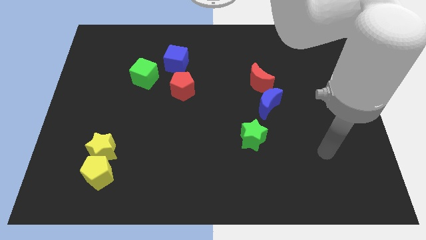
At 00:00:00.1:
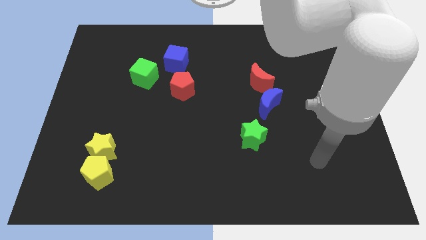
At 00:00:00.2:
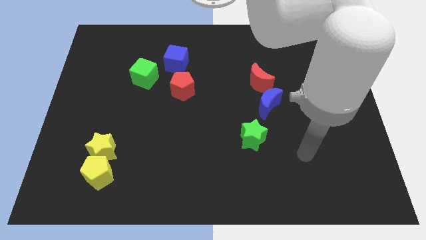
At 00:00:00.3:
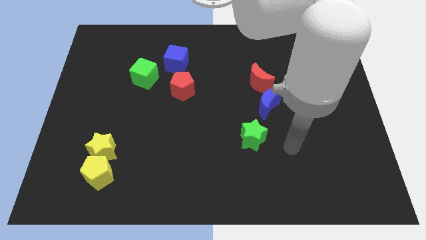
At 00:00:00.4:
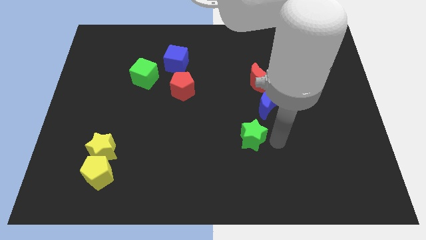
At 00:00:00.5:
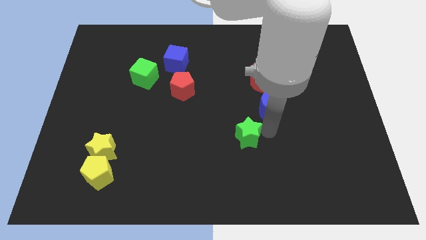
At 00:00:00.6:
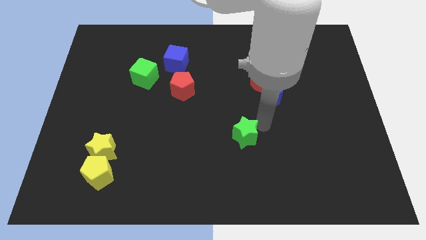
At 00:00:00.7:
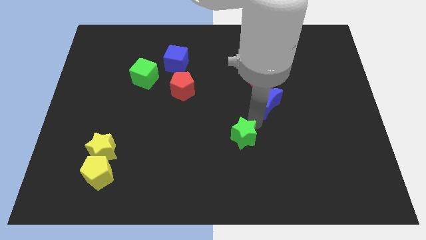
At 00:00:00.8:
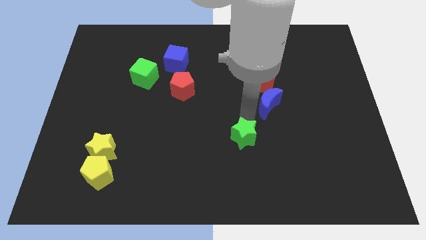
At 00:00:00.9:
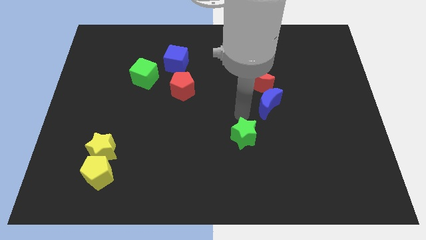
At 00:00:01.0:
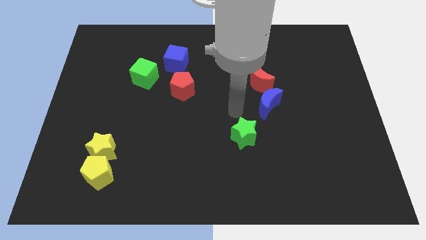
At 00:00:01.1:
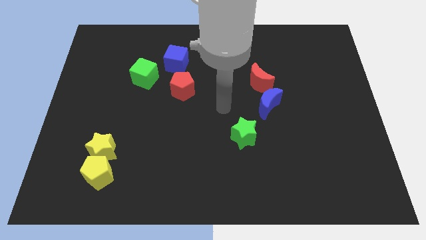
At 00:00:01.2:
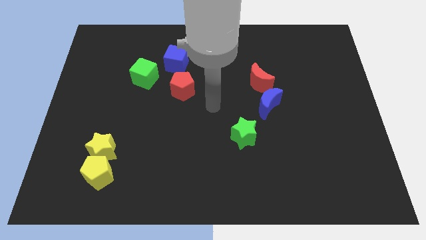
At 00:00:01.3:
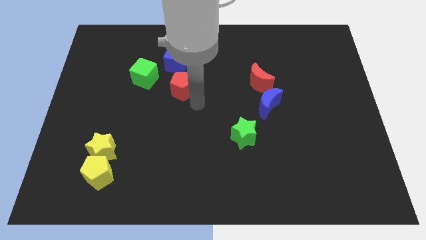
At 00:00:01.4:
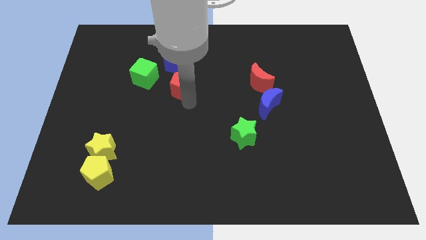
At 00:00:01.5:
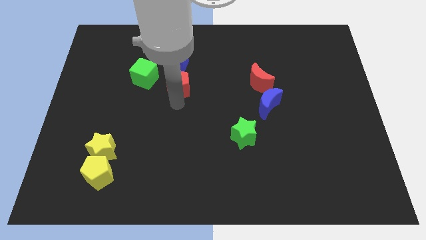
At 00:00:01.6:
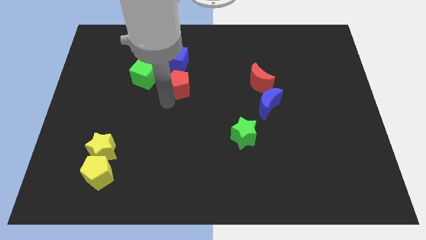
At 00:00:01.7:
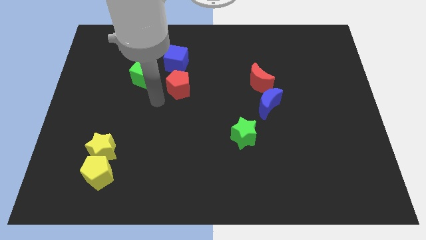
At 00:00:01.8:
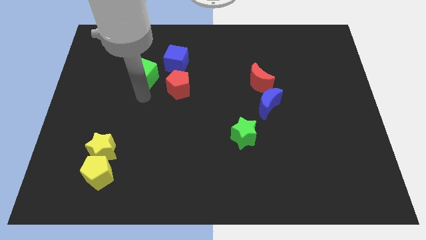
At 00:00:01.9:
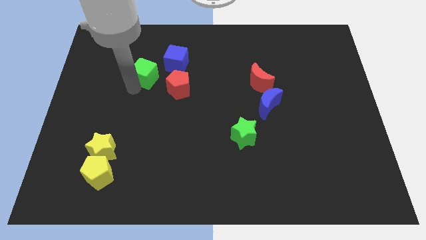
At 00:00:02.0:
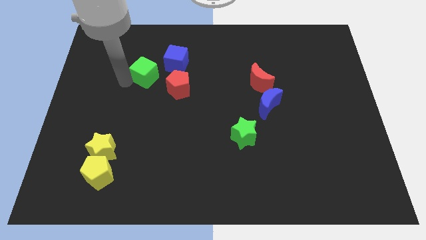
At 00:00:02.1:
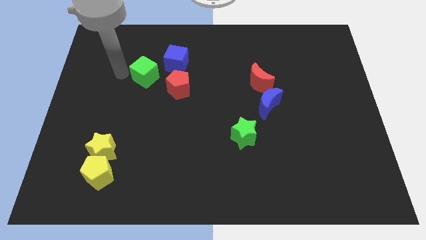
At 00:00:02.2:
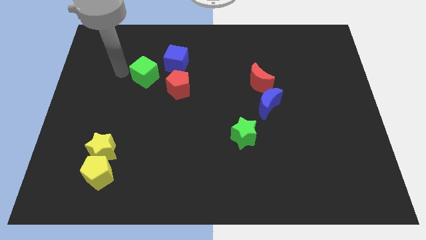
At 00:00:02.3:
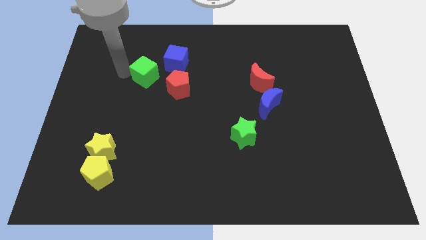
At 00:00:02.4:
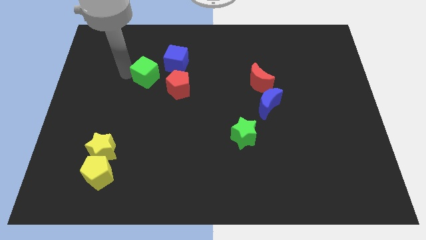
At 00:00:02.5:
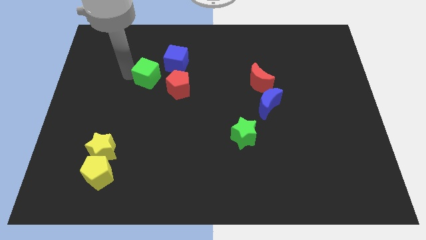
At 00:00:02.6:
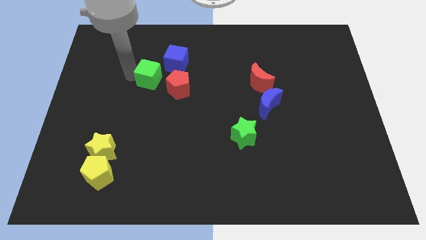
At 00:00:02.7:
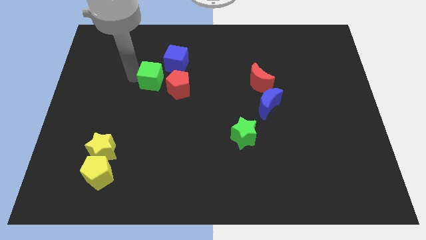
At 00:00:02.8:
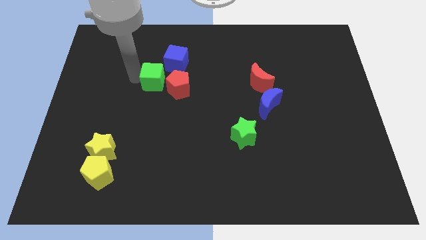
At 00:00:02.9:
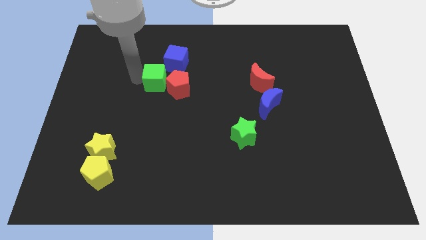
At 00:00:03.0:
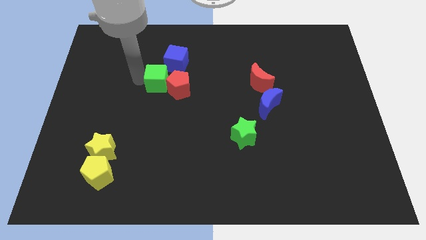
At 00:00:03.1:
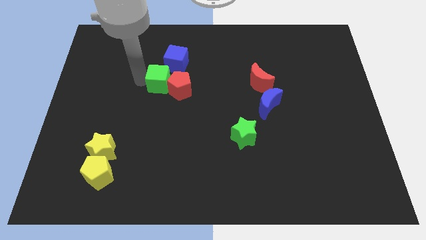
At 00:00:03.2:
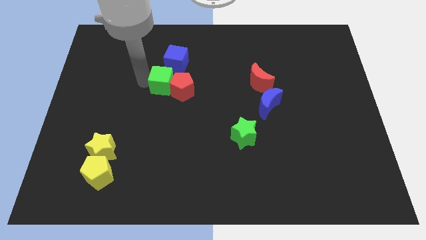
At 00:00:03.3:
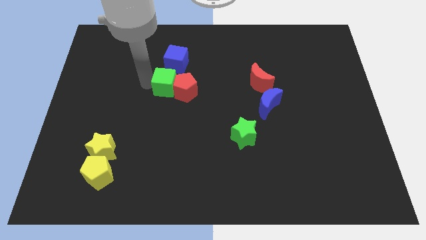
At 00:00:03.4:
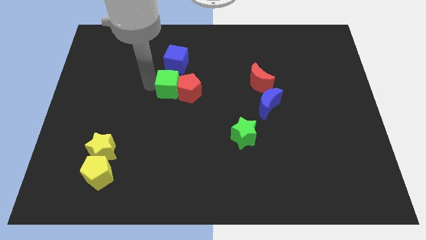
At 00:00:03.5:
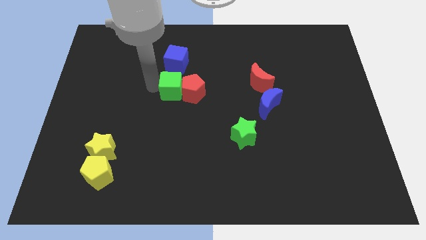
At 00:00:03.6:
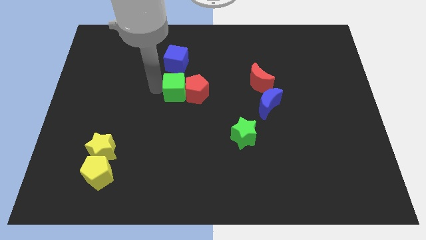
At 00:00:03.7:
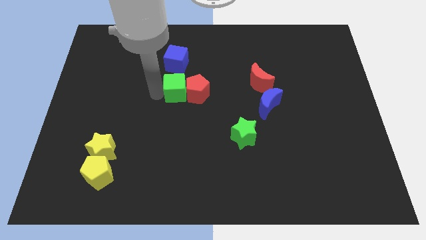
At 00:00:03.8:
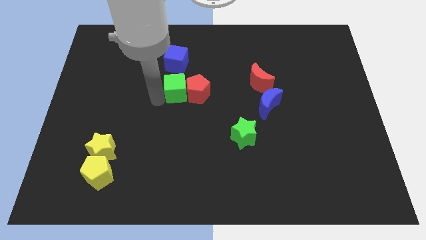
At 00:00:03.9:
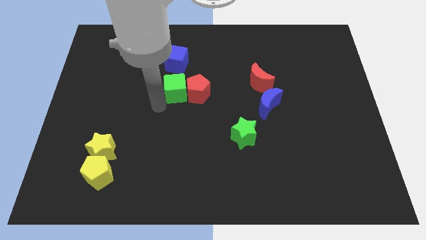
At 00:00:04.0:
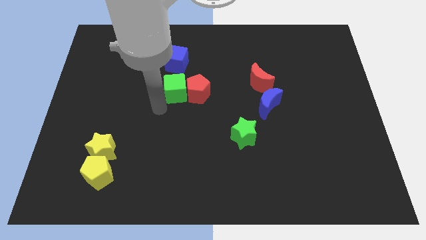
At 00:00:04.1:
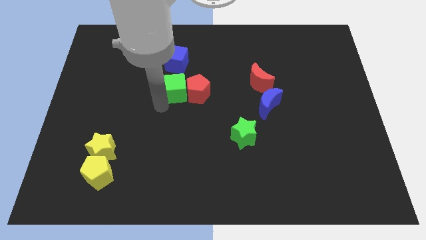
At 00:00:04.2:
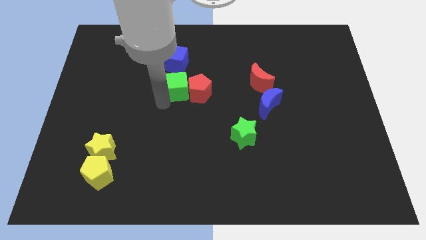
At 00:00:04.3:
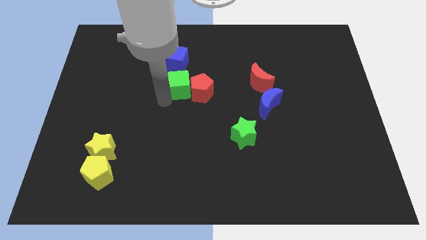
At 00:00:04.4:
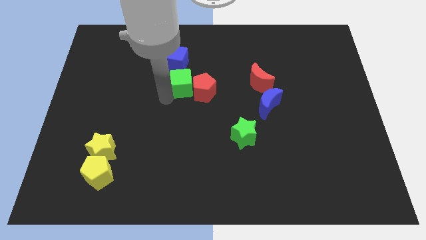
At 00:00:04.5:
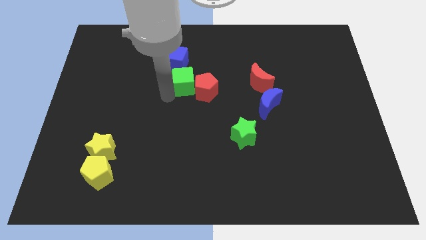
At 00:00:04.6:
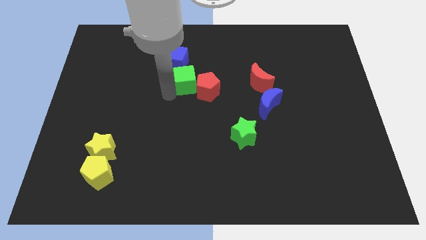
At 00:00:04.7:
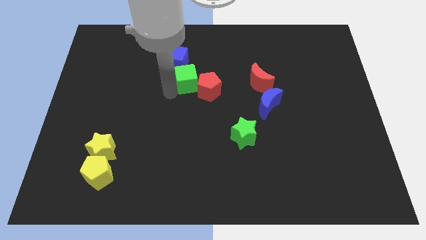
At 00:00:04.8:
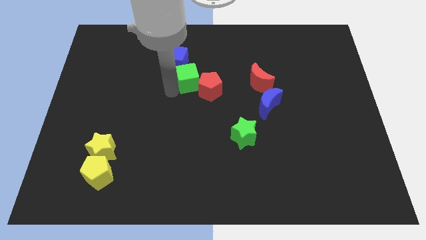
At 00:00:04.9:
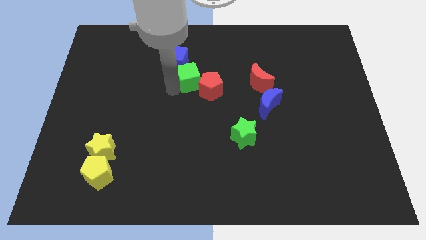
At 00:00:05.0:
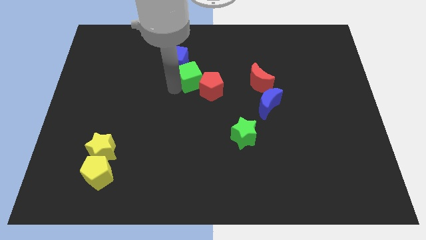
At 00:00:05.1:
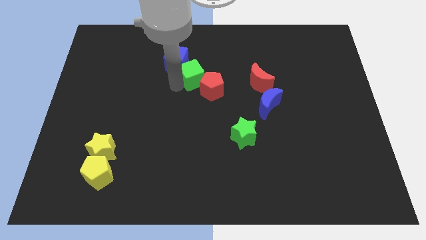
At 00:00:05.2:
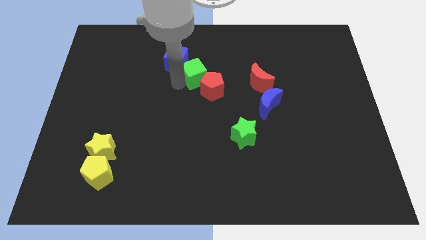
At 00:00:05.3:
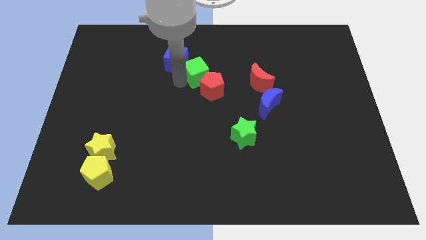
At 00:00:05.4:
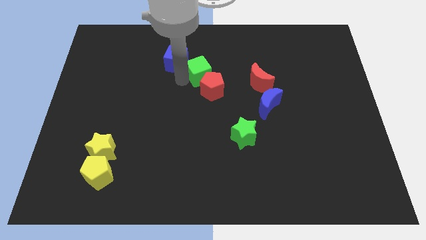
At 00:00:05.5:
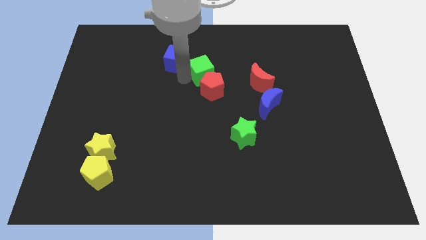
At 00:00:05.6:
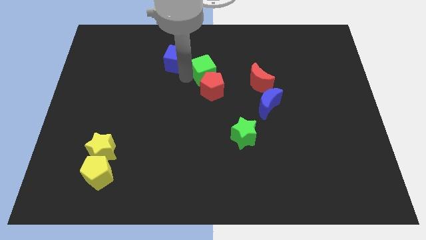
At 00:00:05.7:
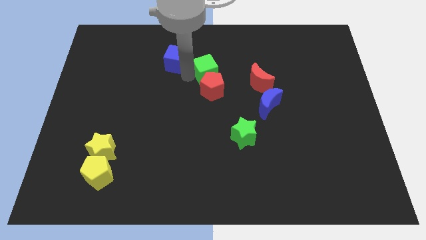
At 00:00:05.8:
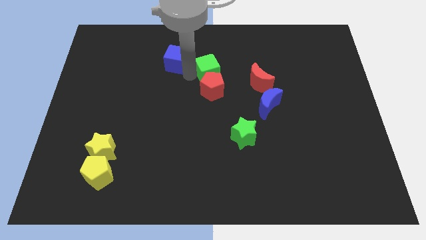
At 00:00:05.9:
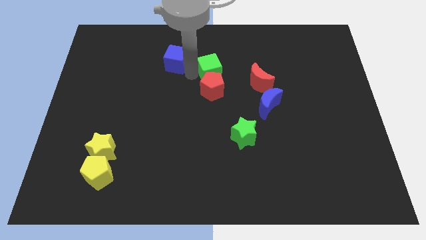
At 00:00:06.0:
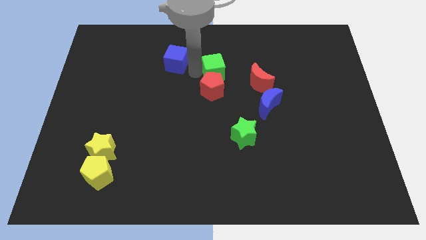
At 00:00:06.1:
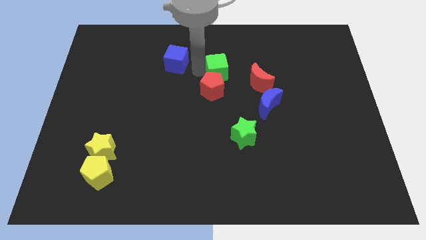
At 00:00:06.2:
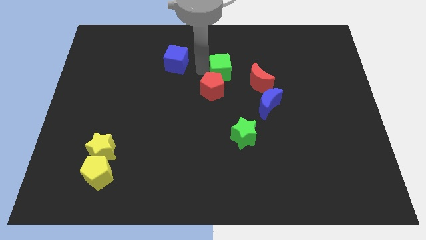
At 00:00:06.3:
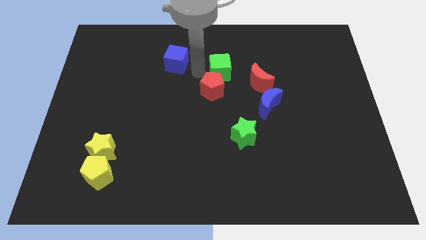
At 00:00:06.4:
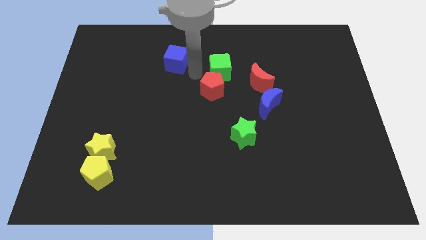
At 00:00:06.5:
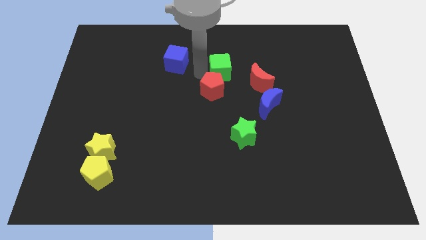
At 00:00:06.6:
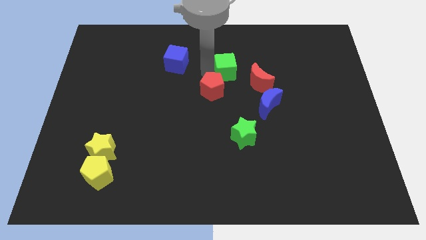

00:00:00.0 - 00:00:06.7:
slide the green cube right

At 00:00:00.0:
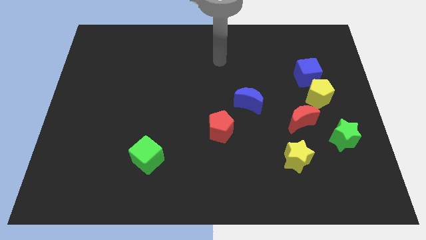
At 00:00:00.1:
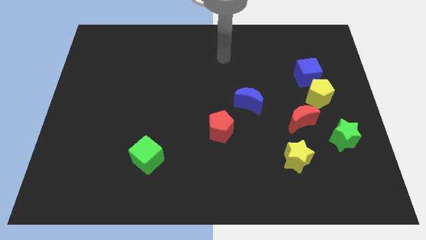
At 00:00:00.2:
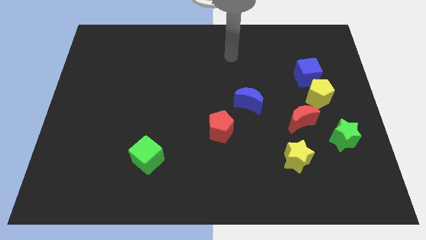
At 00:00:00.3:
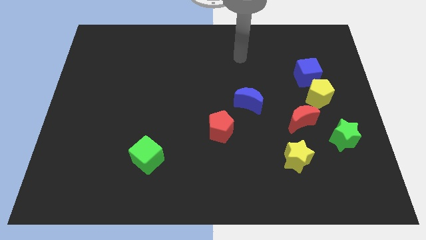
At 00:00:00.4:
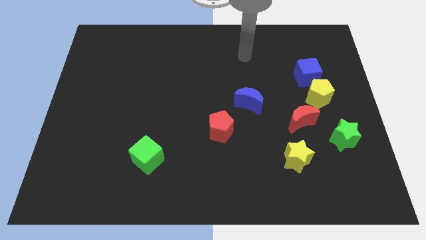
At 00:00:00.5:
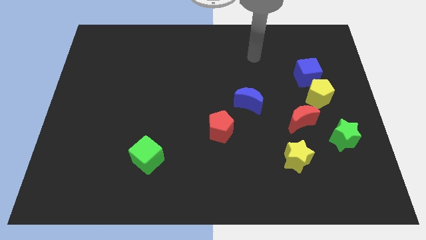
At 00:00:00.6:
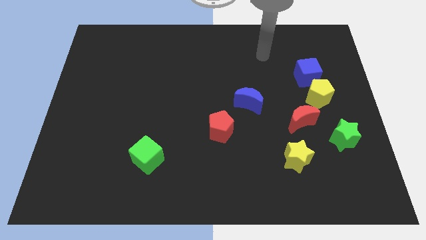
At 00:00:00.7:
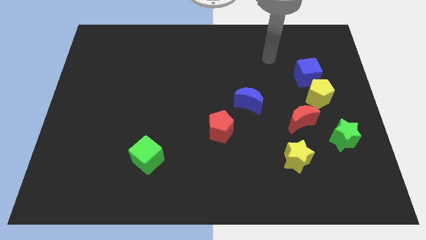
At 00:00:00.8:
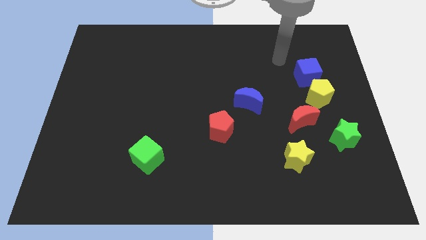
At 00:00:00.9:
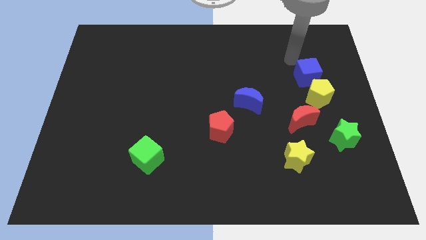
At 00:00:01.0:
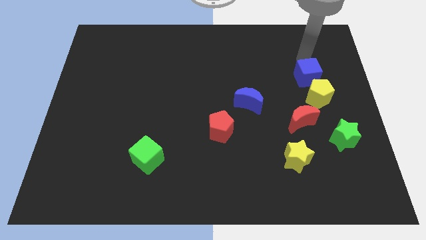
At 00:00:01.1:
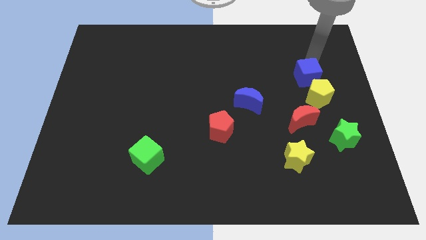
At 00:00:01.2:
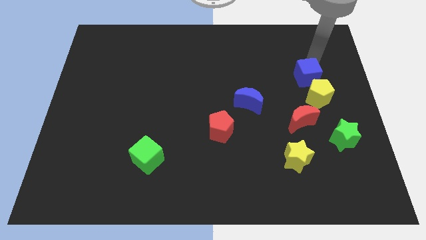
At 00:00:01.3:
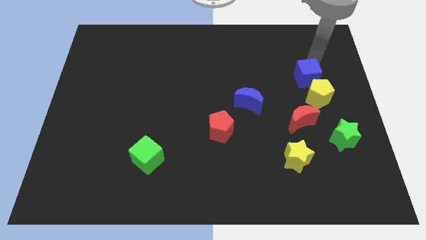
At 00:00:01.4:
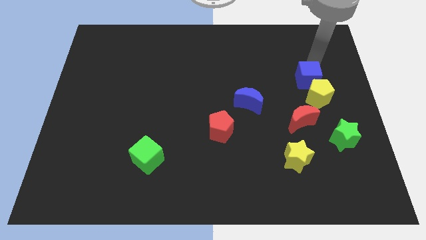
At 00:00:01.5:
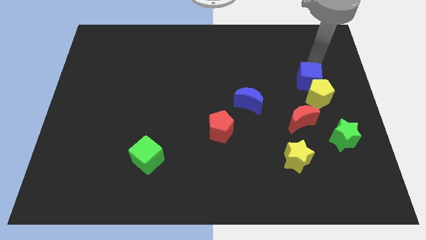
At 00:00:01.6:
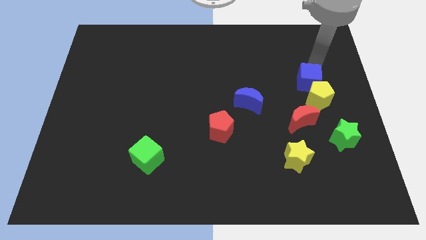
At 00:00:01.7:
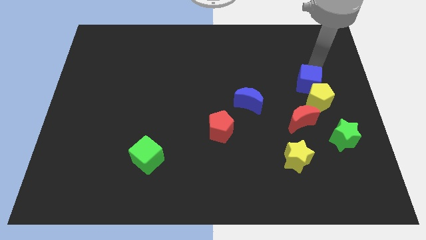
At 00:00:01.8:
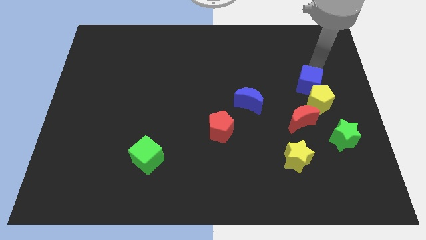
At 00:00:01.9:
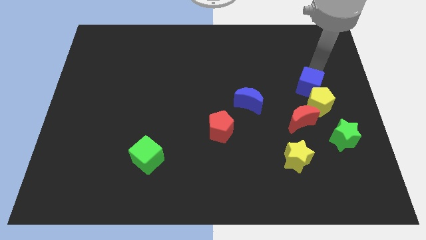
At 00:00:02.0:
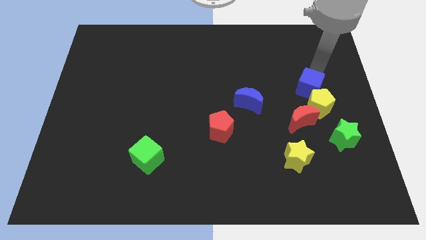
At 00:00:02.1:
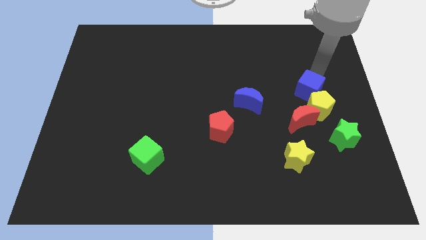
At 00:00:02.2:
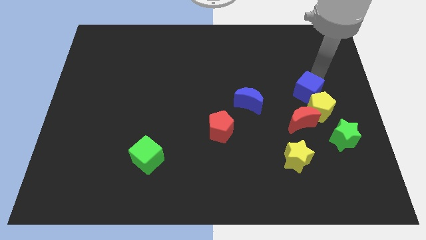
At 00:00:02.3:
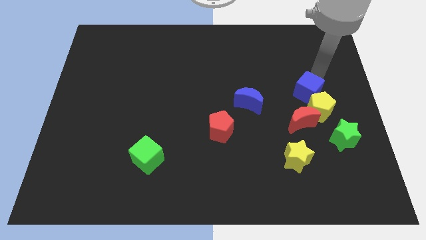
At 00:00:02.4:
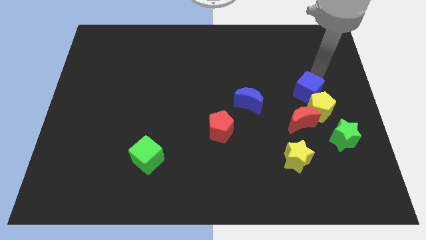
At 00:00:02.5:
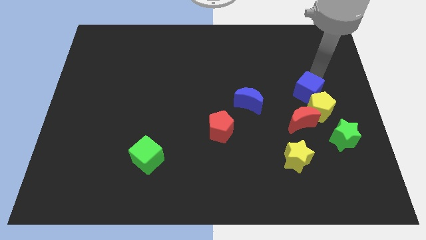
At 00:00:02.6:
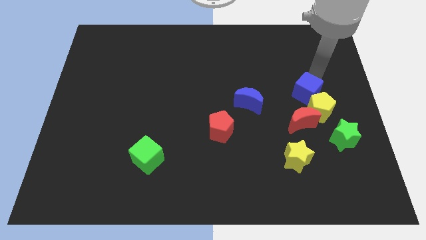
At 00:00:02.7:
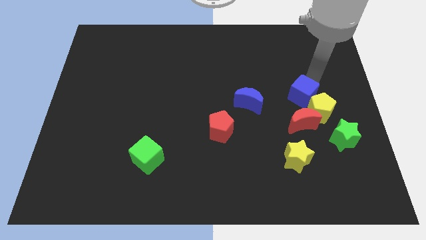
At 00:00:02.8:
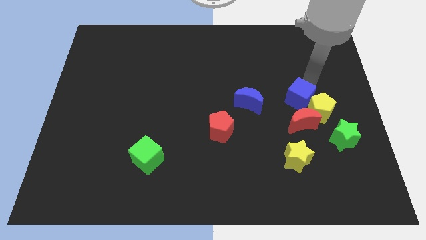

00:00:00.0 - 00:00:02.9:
move the blue cube a bit down
